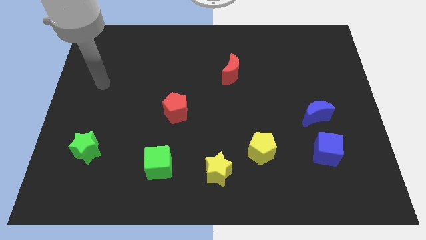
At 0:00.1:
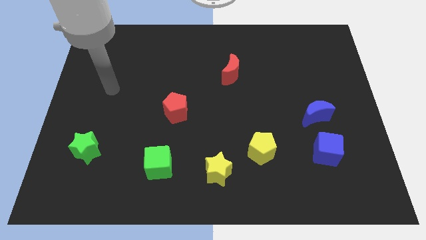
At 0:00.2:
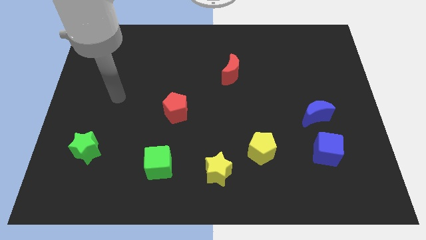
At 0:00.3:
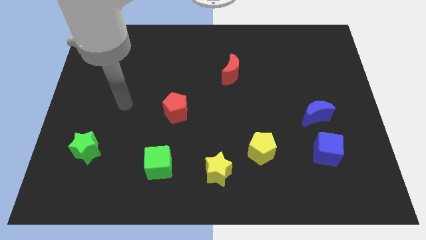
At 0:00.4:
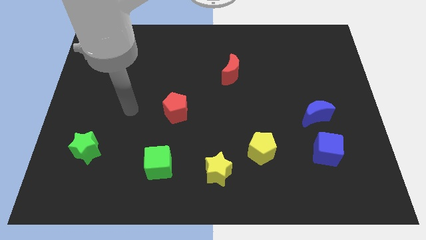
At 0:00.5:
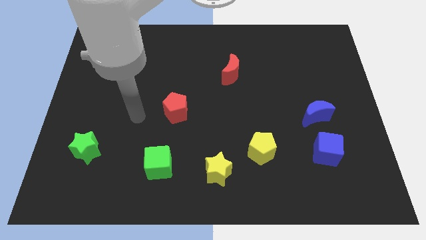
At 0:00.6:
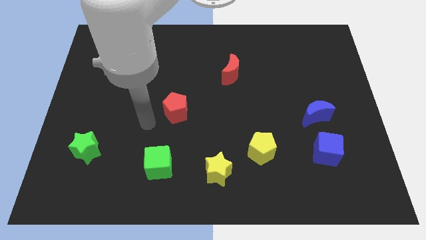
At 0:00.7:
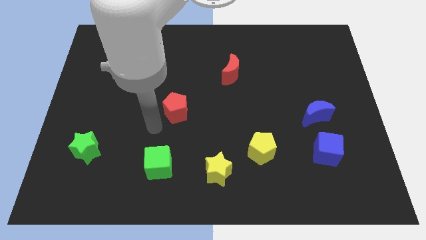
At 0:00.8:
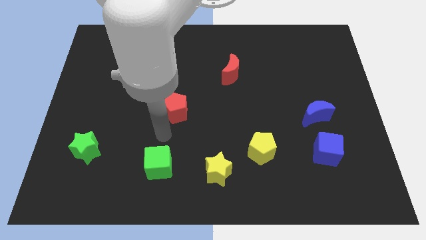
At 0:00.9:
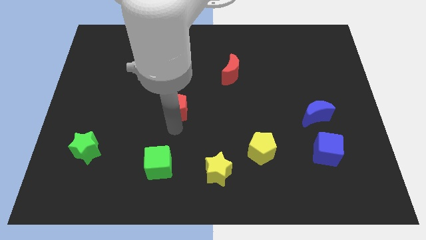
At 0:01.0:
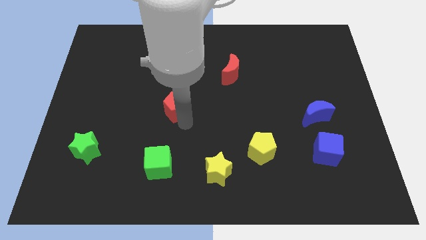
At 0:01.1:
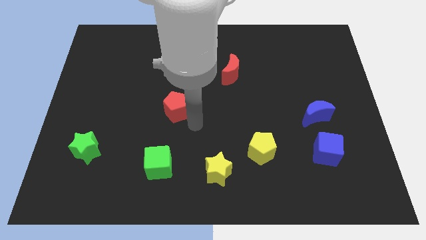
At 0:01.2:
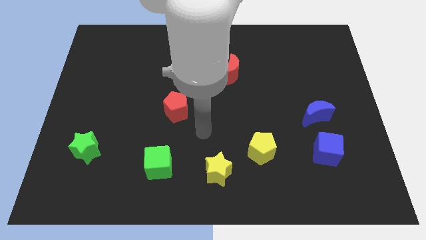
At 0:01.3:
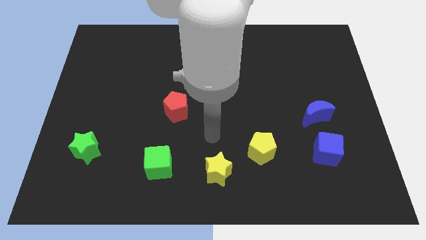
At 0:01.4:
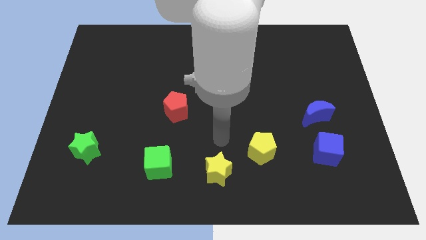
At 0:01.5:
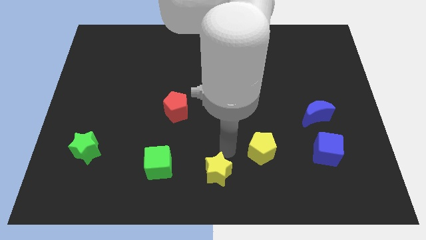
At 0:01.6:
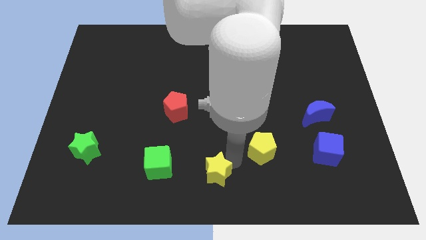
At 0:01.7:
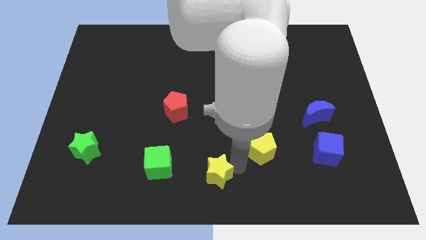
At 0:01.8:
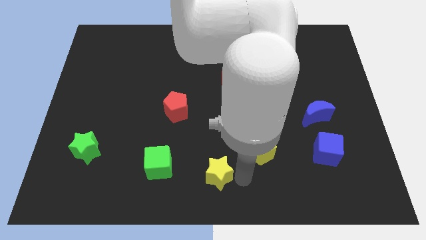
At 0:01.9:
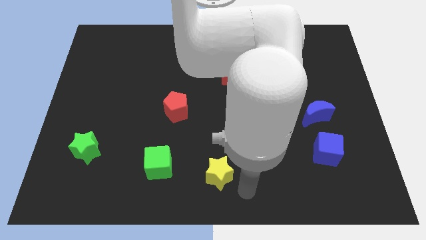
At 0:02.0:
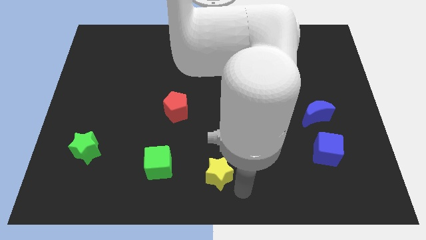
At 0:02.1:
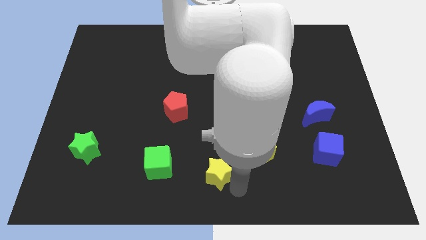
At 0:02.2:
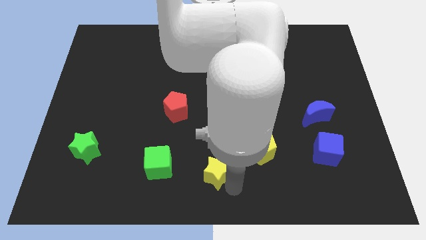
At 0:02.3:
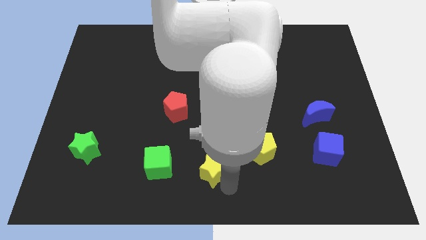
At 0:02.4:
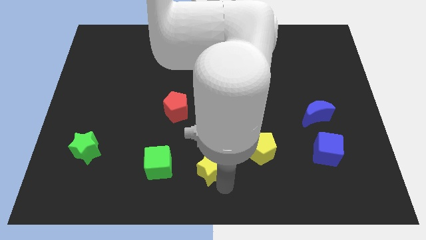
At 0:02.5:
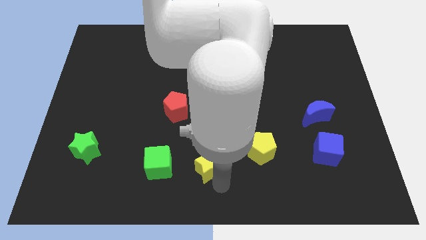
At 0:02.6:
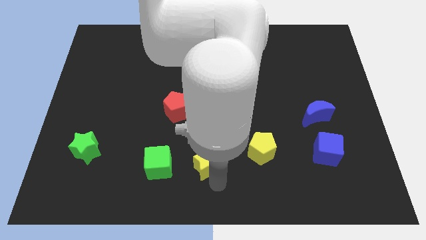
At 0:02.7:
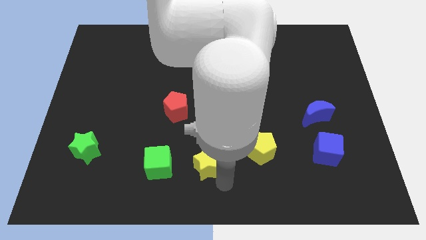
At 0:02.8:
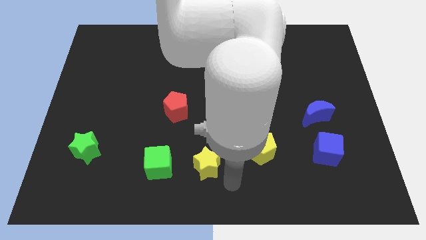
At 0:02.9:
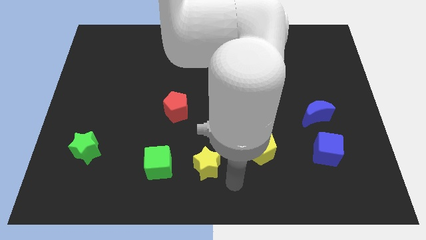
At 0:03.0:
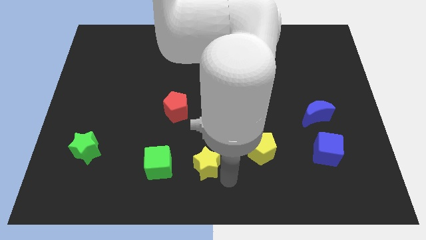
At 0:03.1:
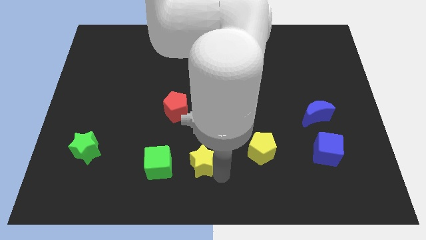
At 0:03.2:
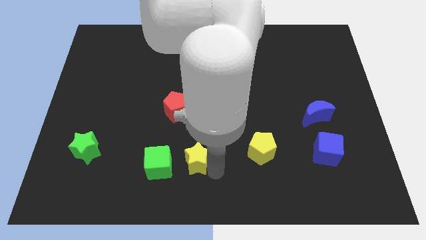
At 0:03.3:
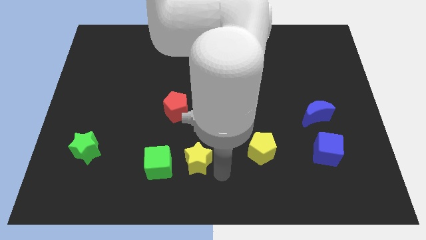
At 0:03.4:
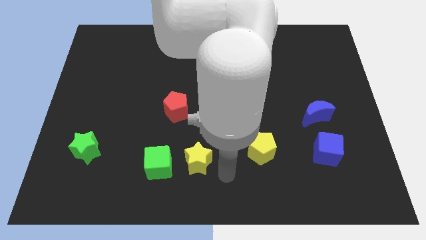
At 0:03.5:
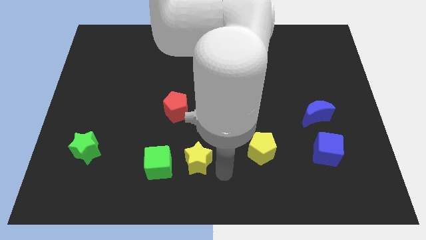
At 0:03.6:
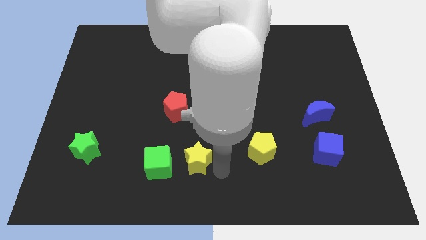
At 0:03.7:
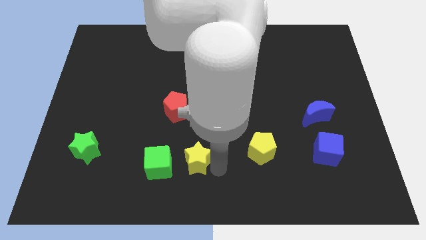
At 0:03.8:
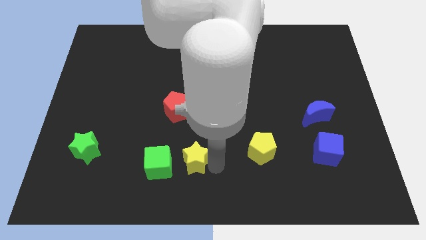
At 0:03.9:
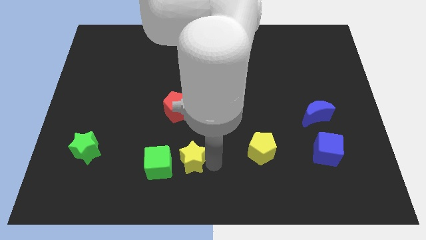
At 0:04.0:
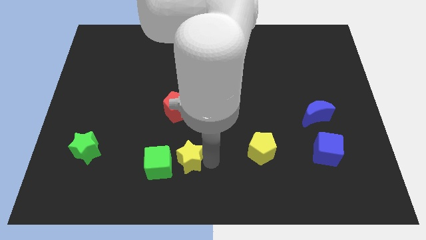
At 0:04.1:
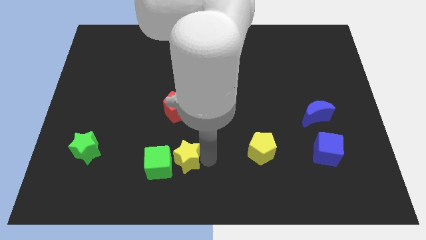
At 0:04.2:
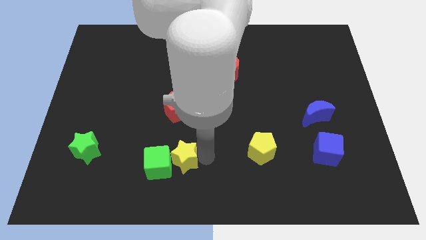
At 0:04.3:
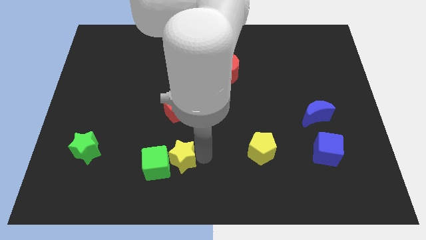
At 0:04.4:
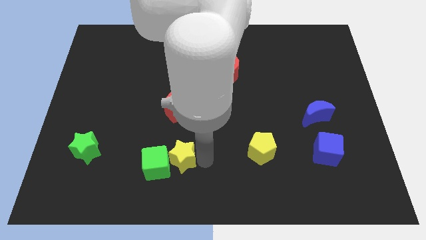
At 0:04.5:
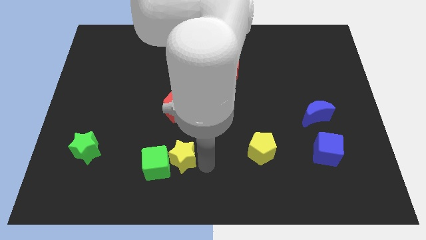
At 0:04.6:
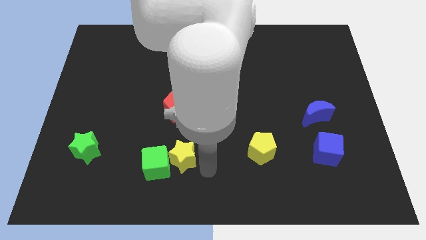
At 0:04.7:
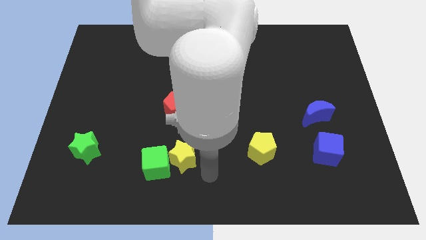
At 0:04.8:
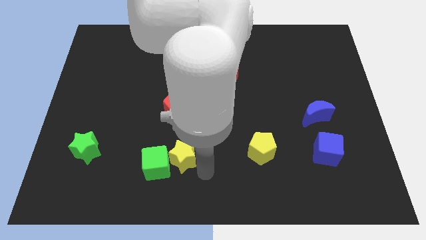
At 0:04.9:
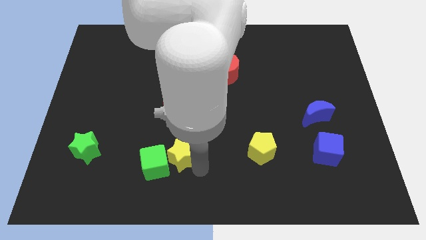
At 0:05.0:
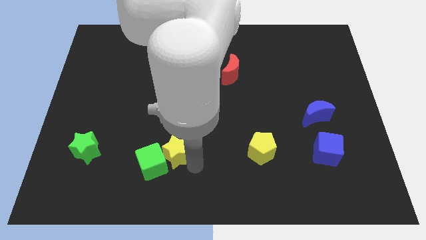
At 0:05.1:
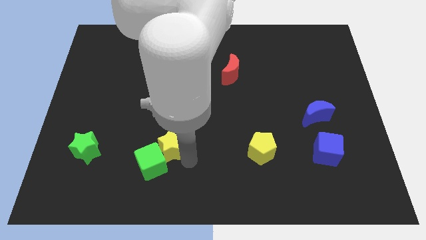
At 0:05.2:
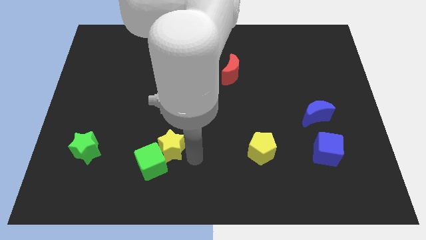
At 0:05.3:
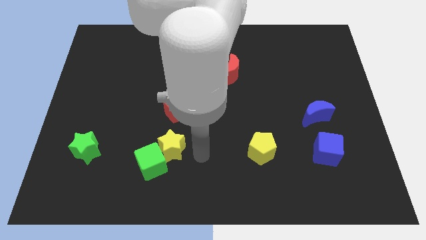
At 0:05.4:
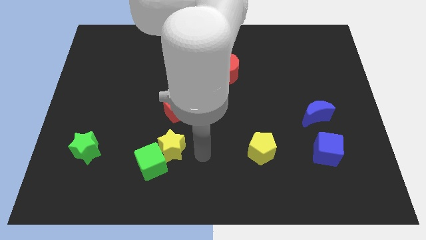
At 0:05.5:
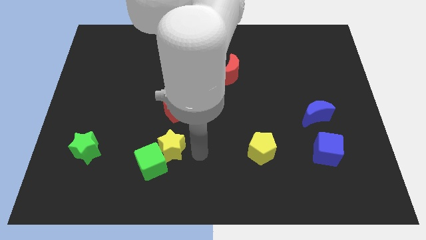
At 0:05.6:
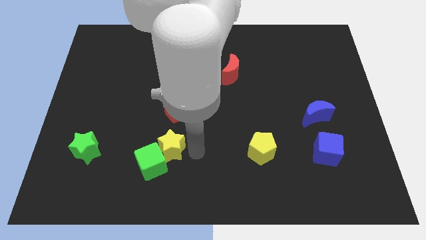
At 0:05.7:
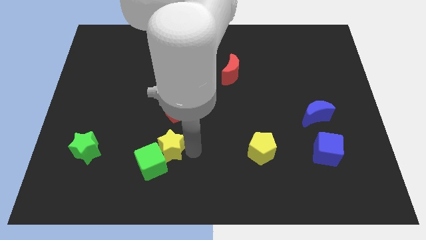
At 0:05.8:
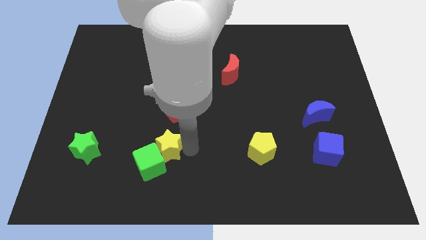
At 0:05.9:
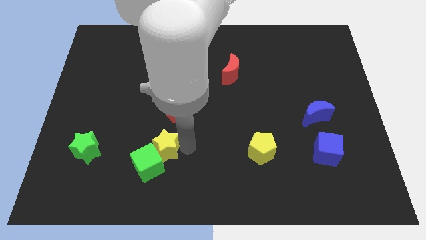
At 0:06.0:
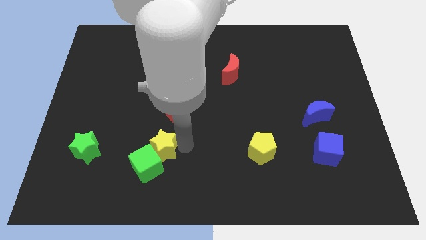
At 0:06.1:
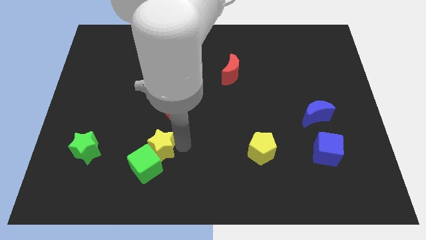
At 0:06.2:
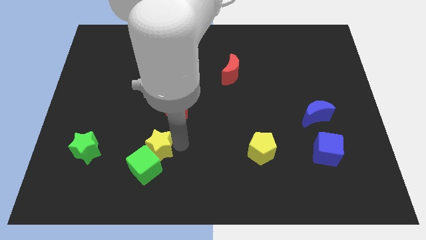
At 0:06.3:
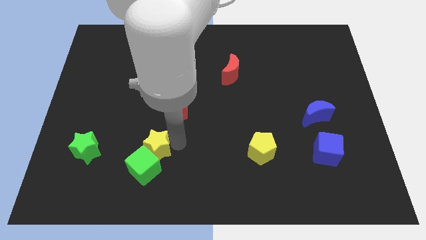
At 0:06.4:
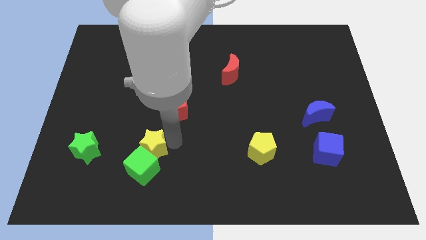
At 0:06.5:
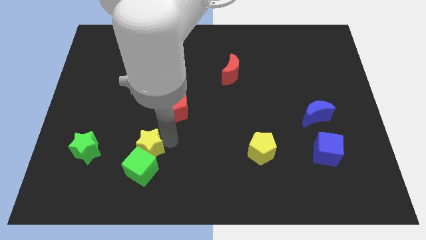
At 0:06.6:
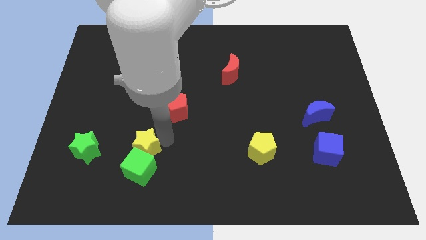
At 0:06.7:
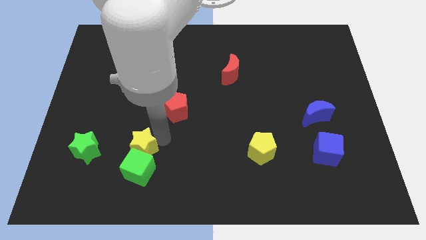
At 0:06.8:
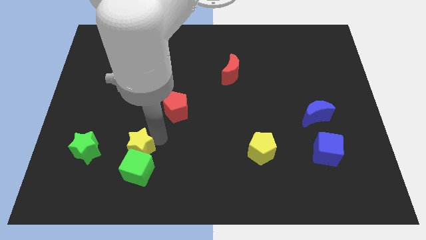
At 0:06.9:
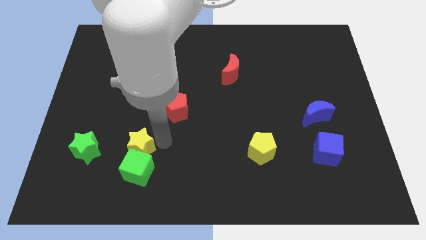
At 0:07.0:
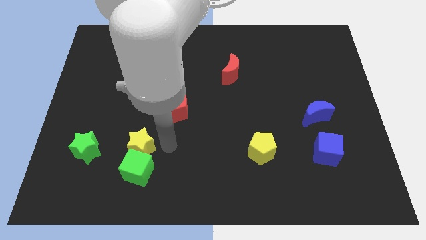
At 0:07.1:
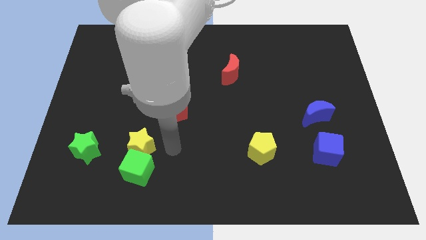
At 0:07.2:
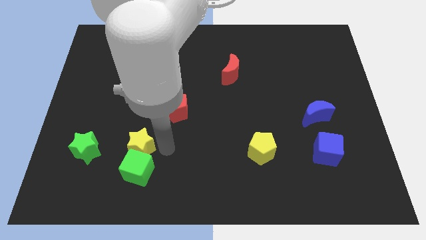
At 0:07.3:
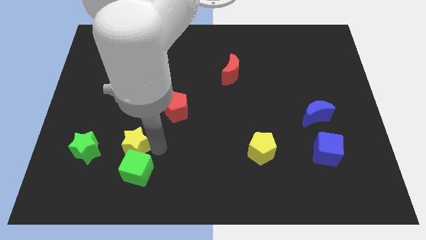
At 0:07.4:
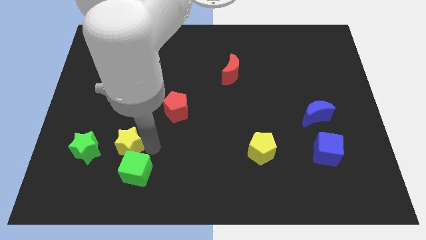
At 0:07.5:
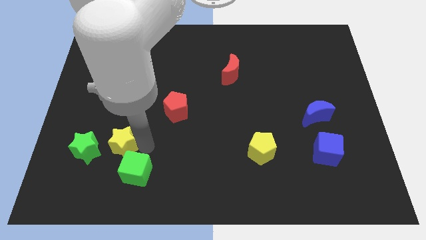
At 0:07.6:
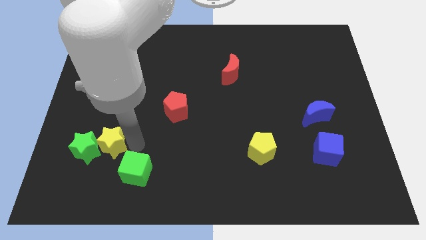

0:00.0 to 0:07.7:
slide the yellow star close to the green star
